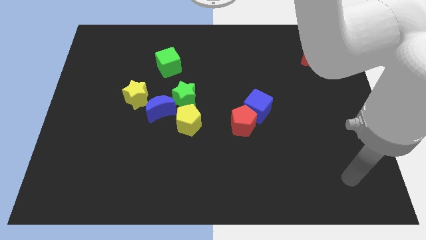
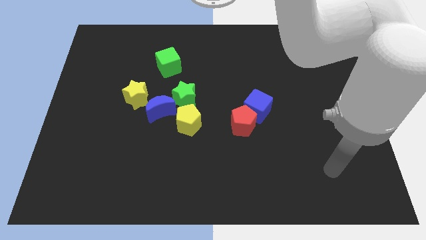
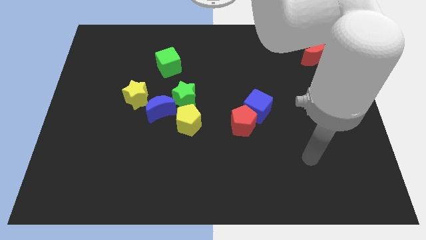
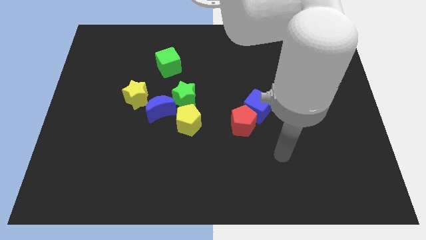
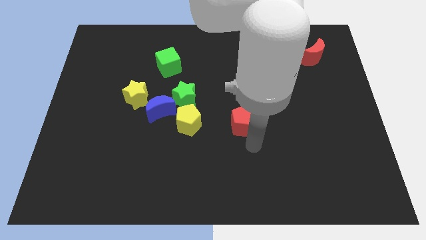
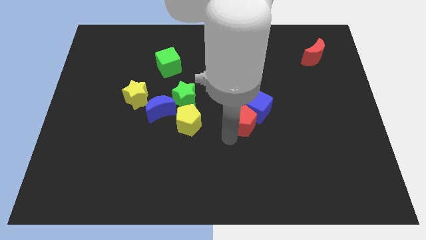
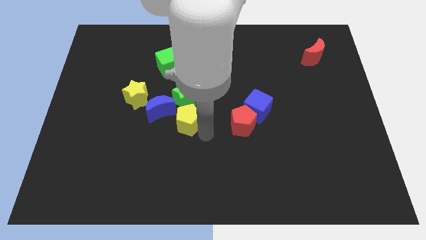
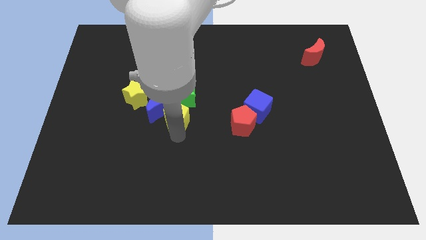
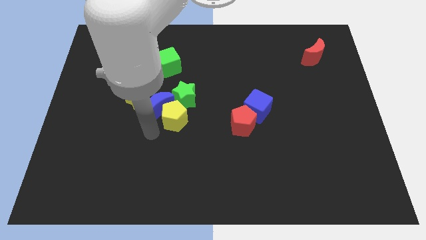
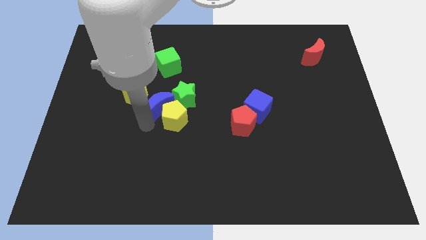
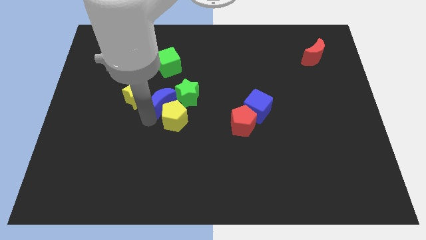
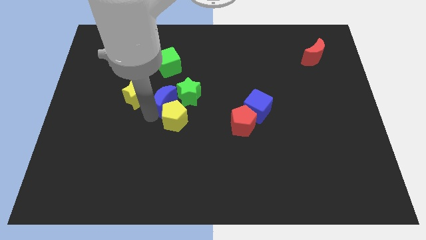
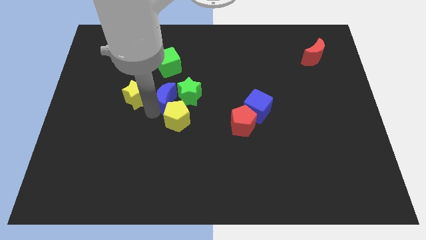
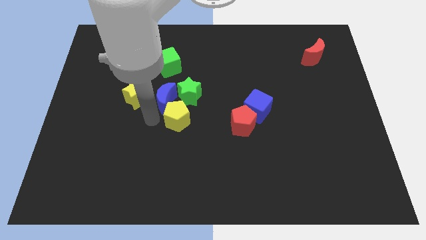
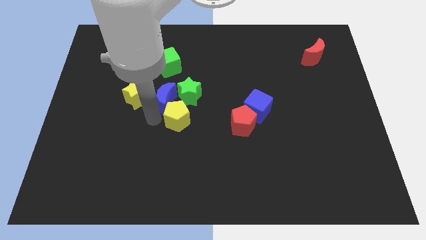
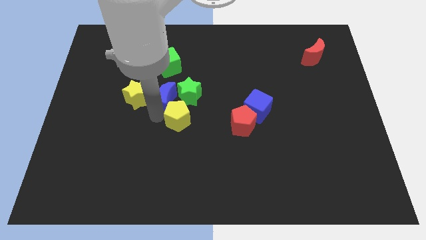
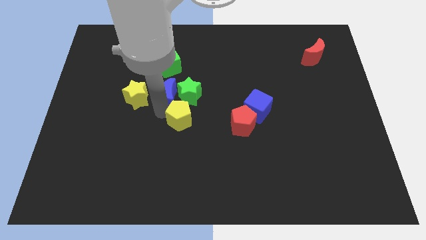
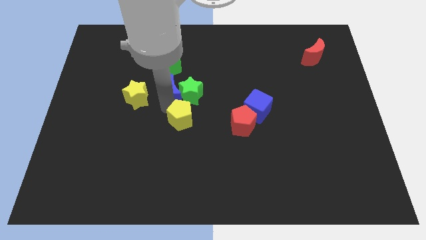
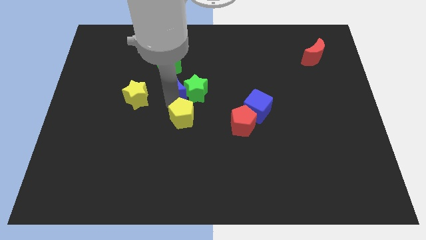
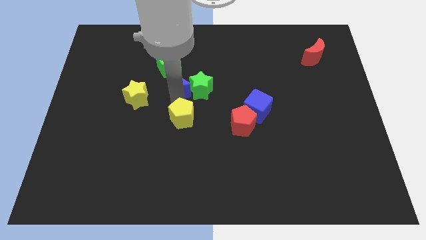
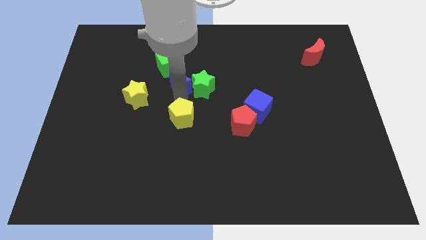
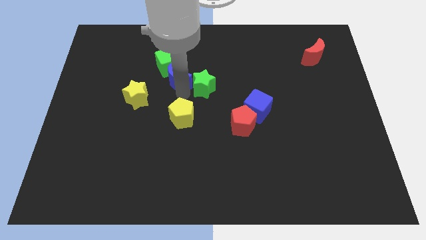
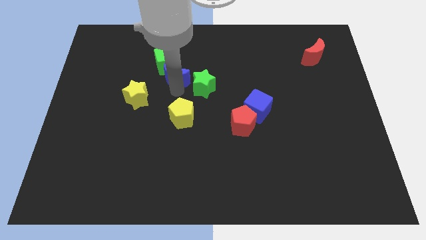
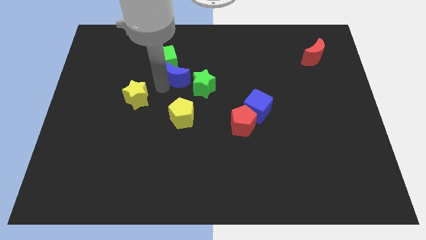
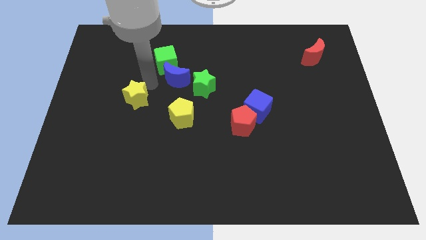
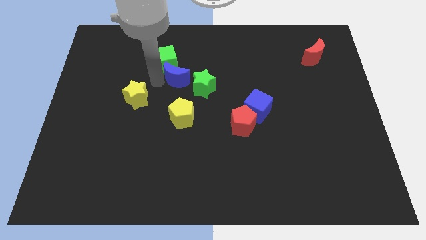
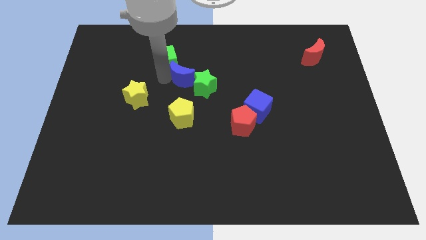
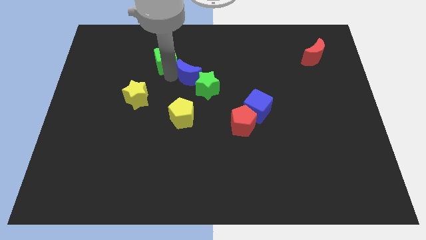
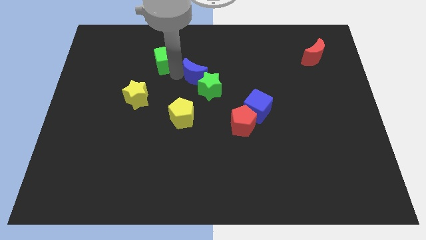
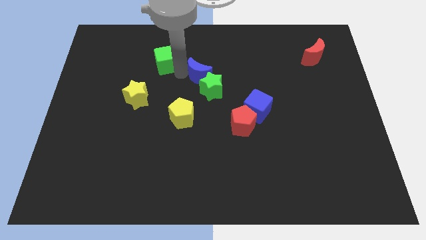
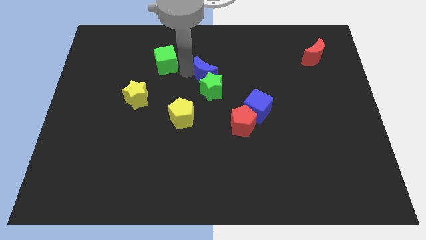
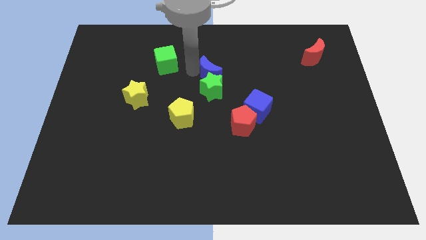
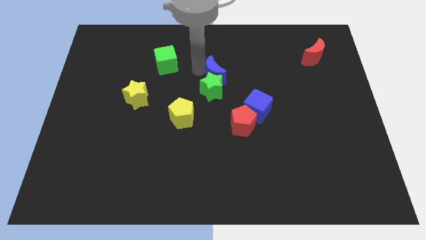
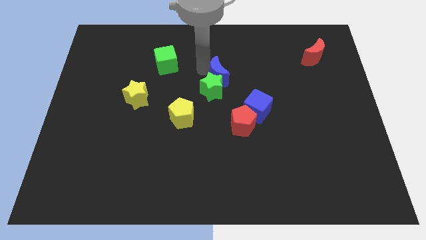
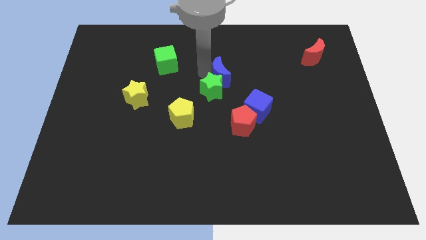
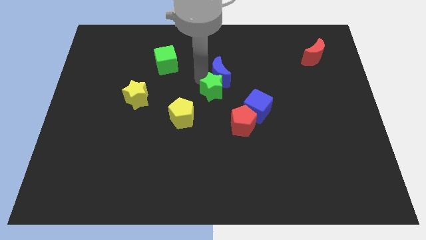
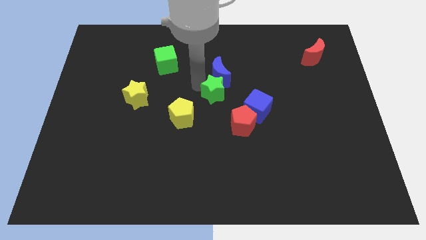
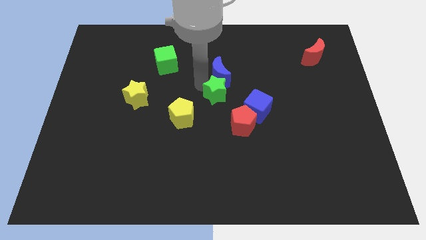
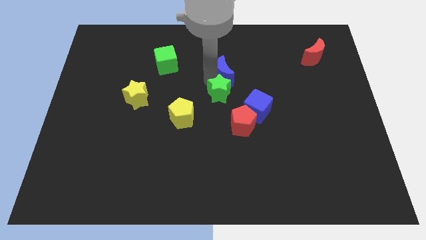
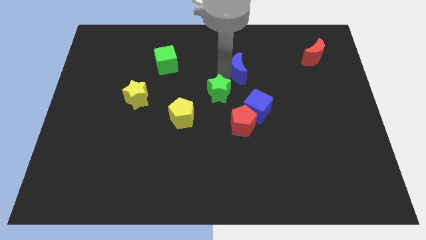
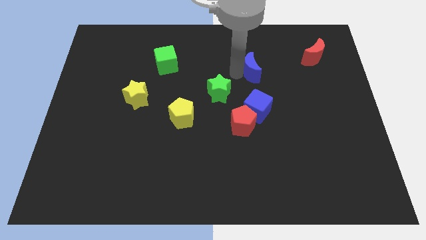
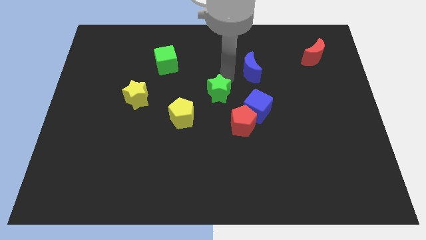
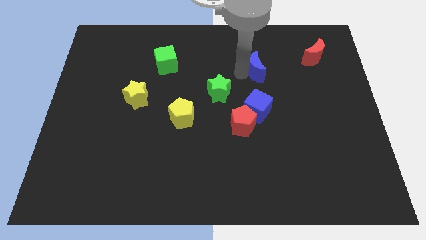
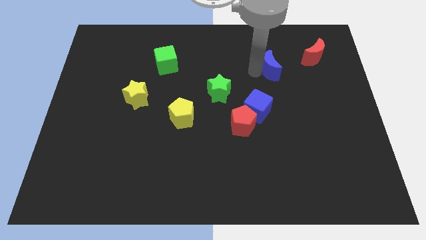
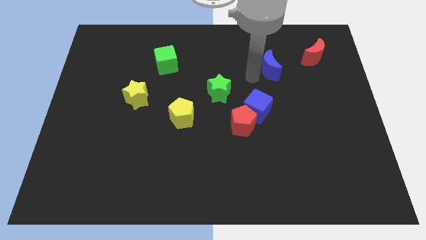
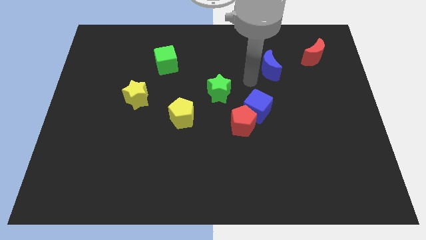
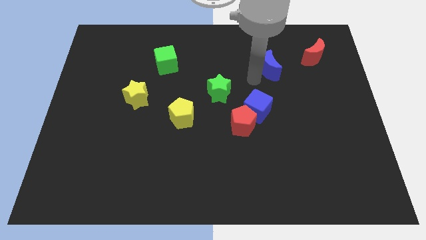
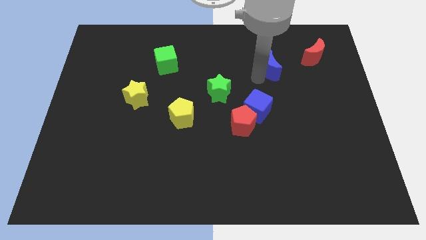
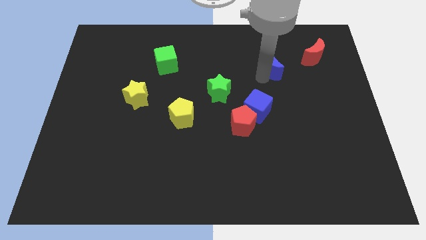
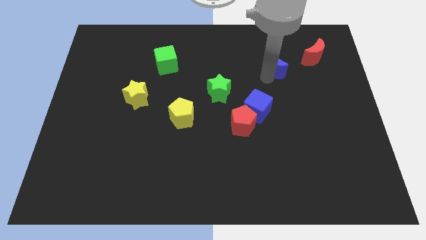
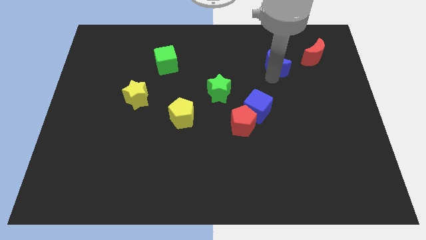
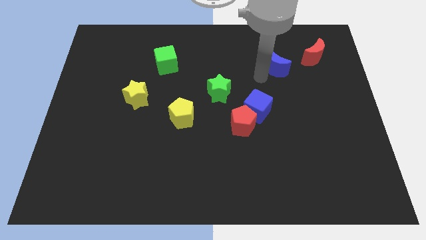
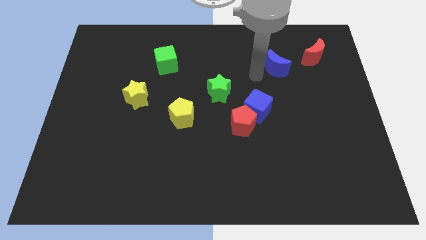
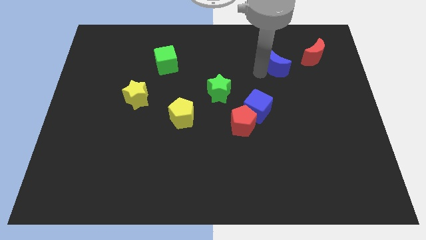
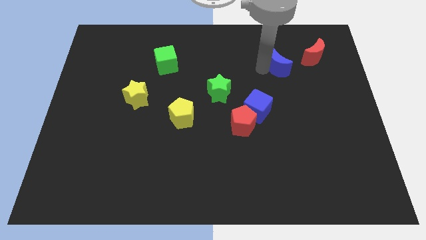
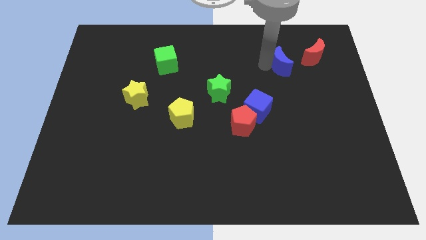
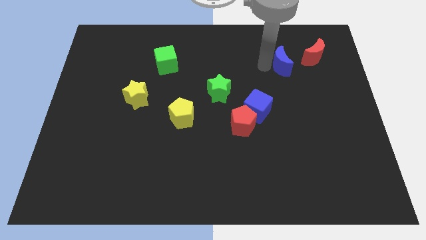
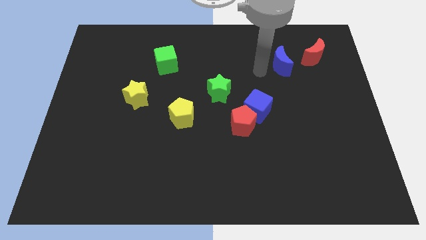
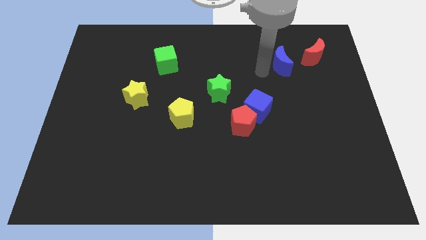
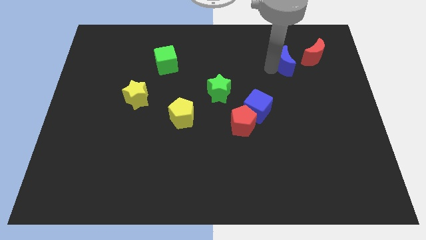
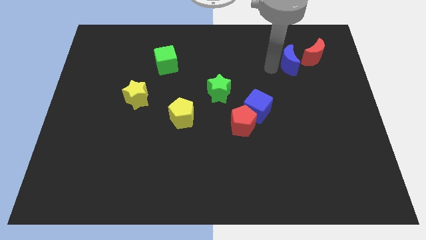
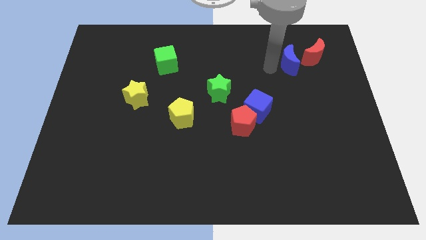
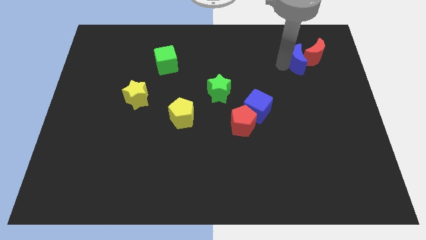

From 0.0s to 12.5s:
move the blue moon next to the red moon
